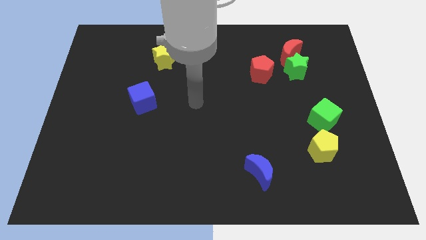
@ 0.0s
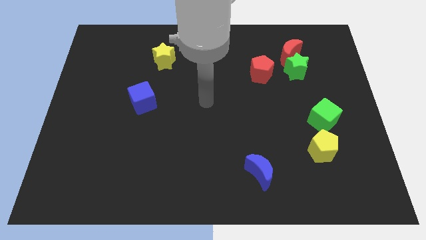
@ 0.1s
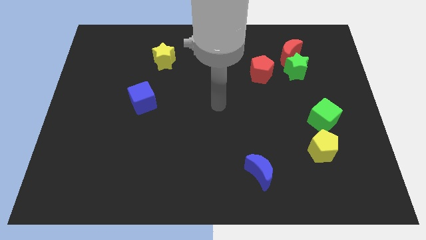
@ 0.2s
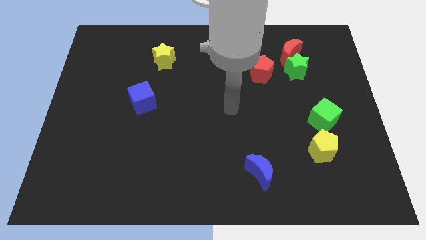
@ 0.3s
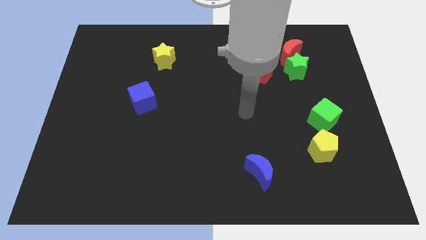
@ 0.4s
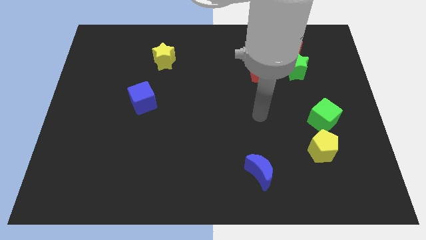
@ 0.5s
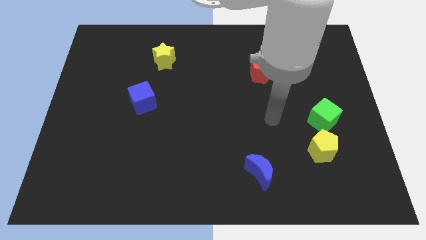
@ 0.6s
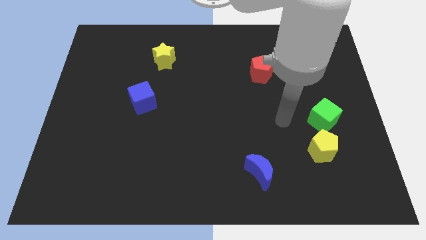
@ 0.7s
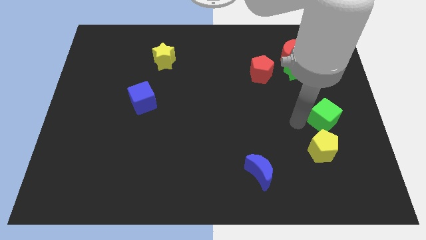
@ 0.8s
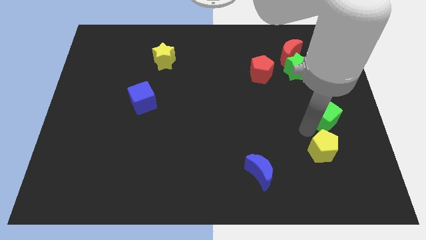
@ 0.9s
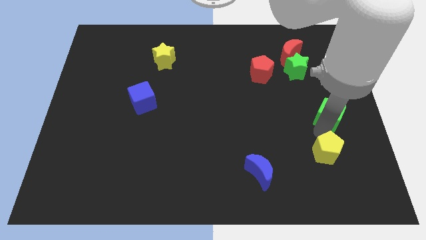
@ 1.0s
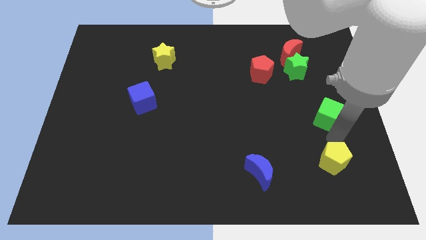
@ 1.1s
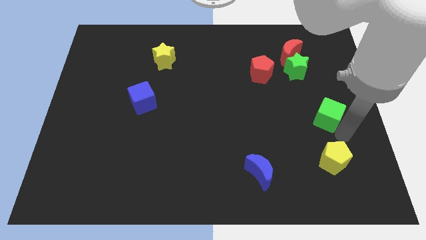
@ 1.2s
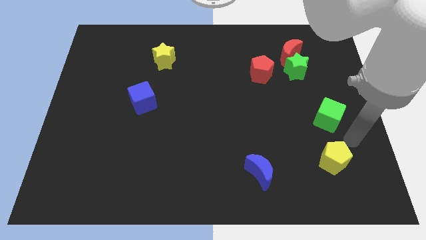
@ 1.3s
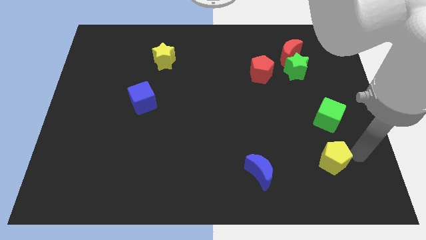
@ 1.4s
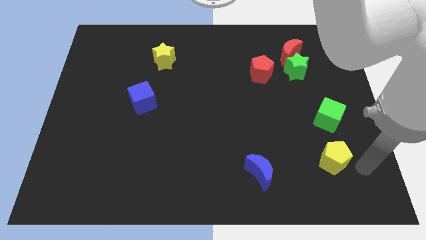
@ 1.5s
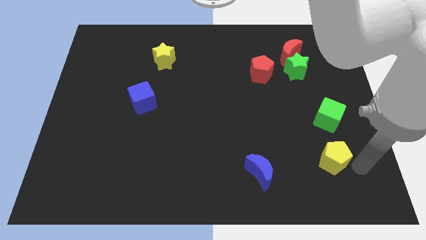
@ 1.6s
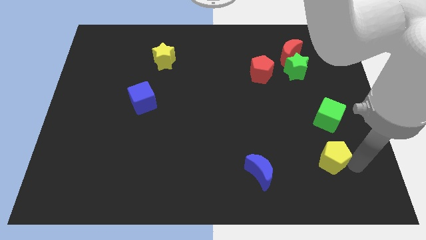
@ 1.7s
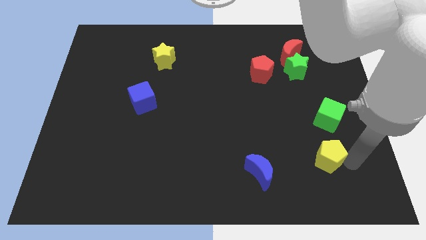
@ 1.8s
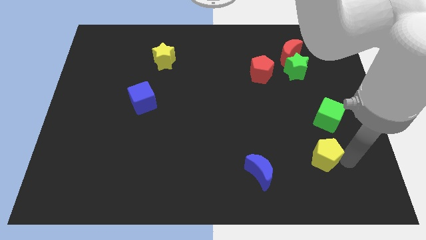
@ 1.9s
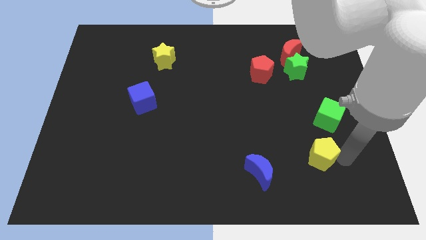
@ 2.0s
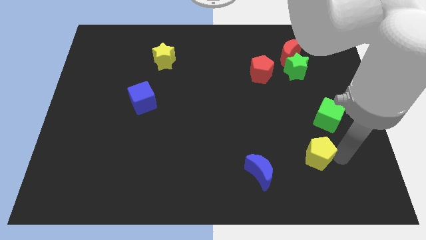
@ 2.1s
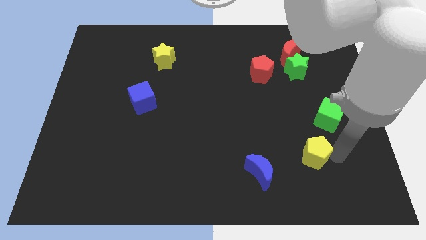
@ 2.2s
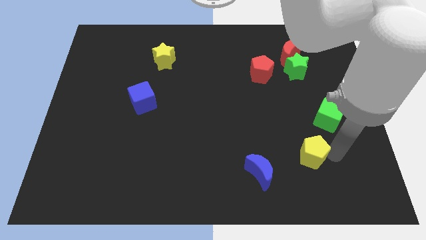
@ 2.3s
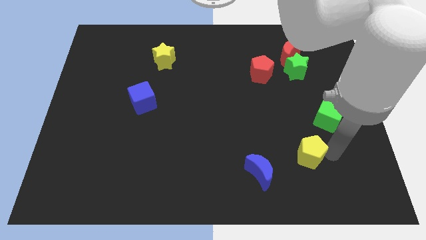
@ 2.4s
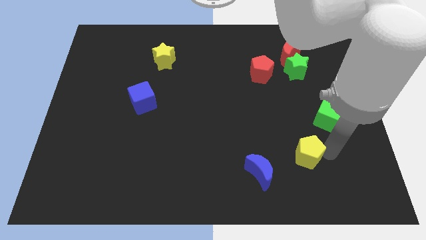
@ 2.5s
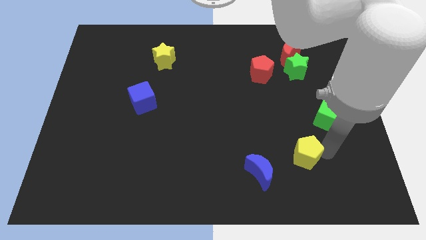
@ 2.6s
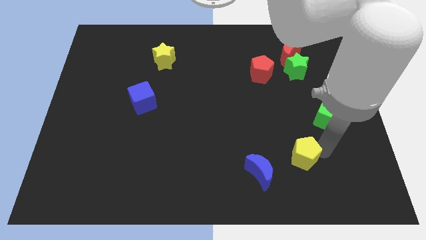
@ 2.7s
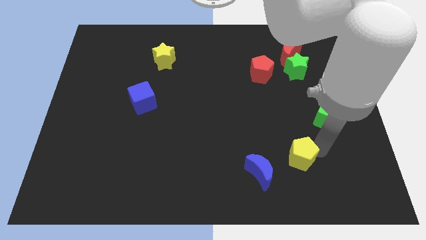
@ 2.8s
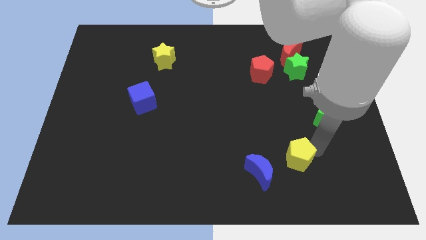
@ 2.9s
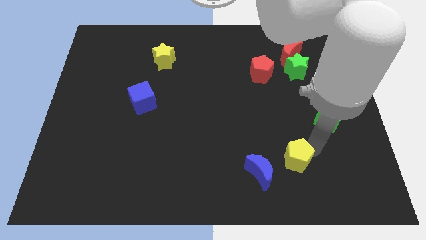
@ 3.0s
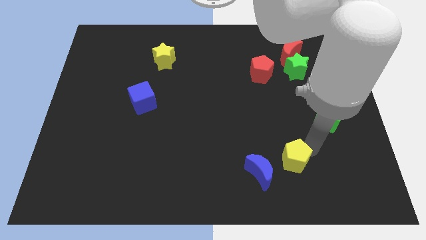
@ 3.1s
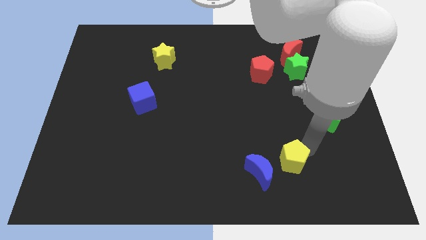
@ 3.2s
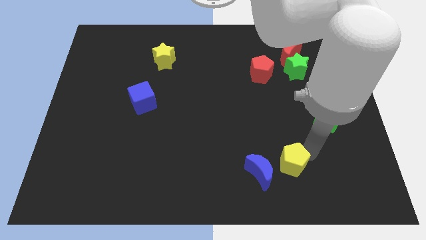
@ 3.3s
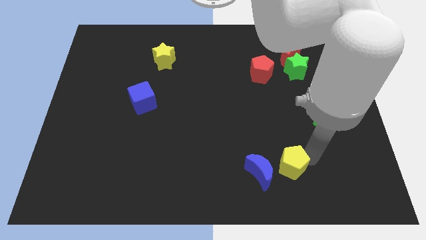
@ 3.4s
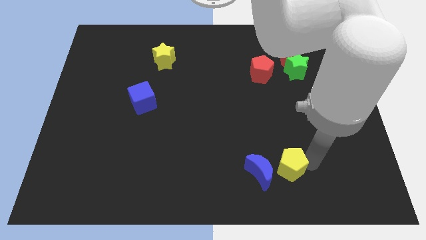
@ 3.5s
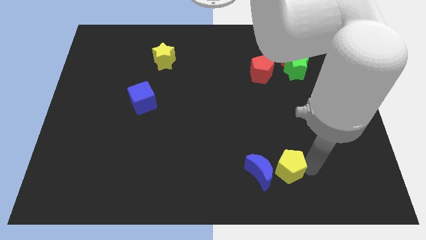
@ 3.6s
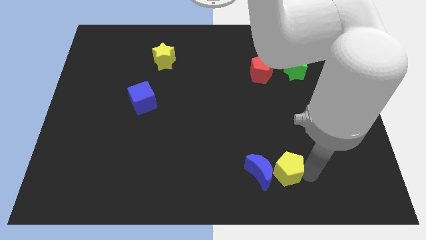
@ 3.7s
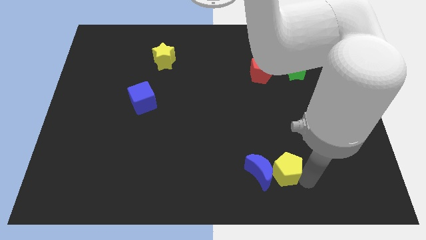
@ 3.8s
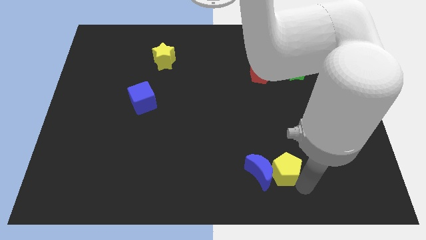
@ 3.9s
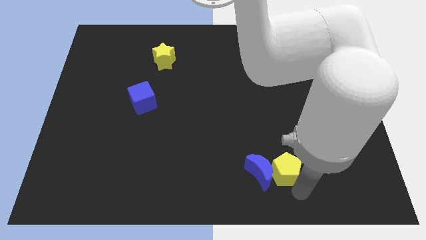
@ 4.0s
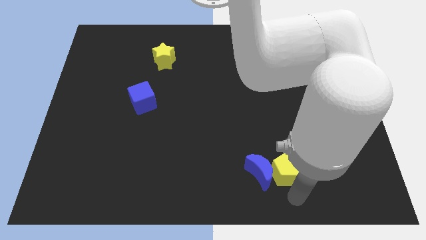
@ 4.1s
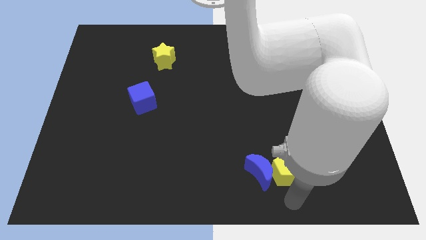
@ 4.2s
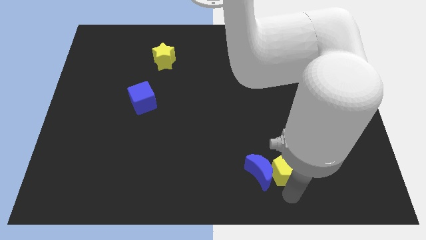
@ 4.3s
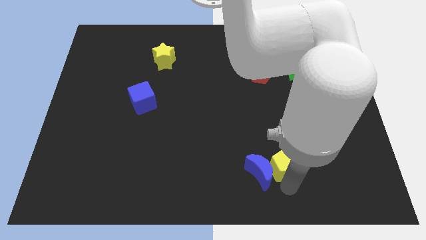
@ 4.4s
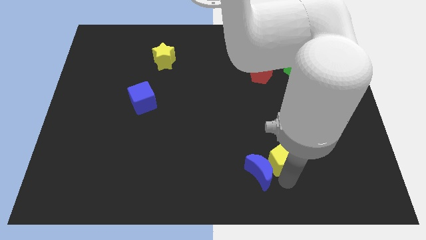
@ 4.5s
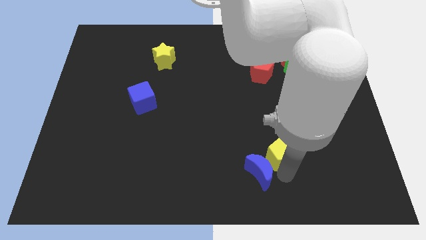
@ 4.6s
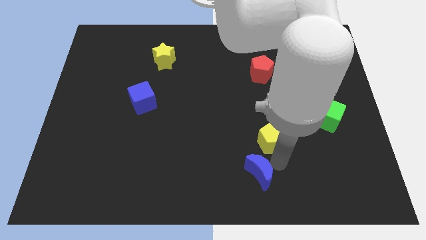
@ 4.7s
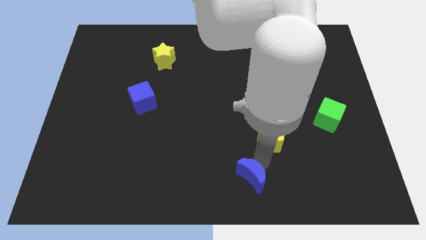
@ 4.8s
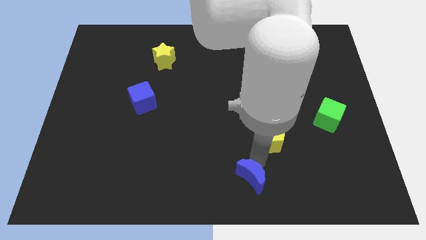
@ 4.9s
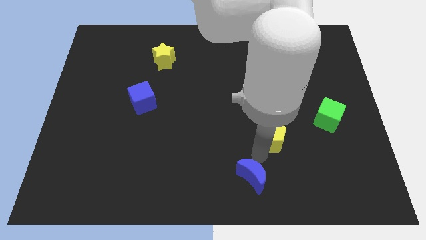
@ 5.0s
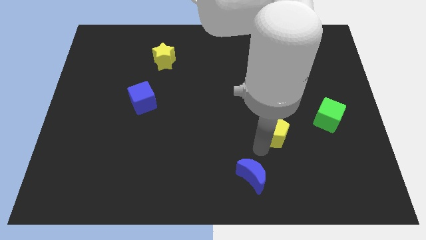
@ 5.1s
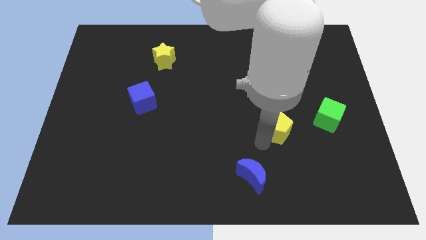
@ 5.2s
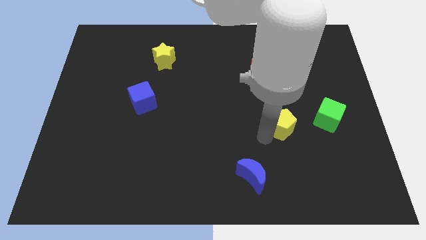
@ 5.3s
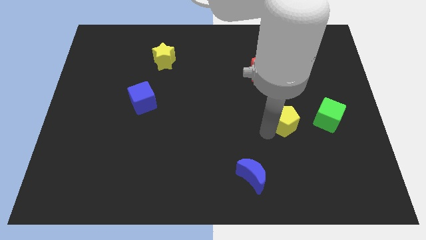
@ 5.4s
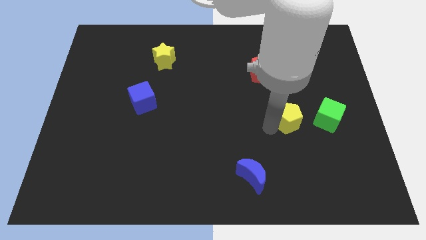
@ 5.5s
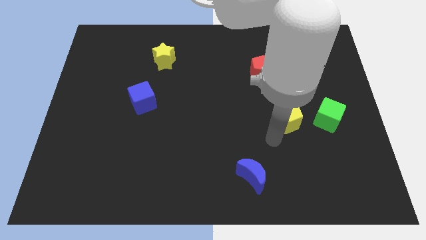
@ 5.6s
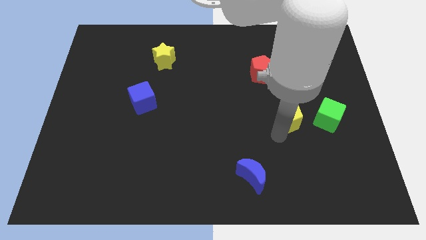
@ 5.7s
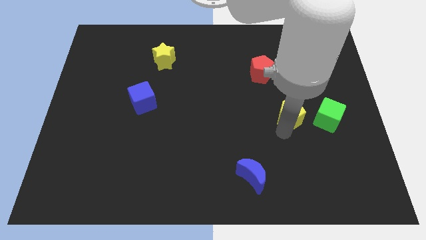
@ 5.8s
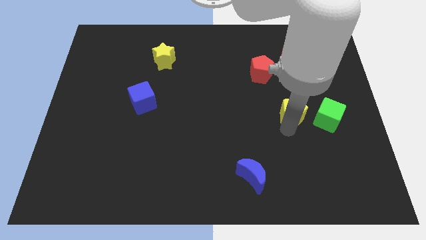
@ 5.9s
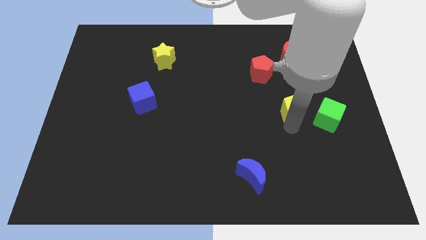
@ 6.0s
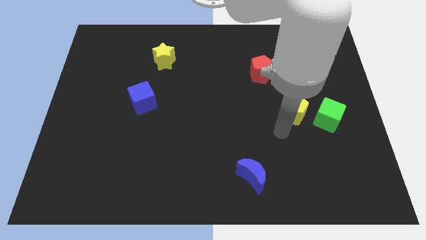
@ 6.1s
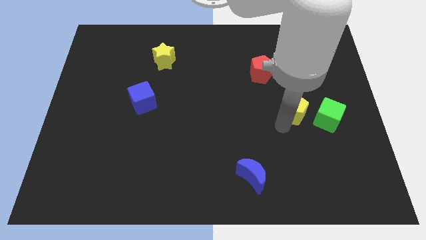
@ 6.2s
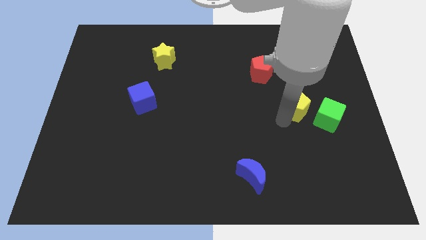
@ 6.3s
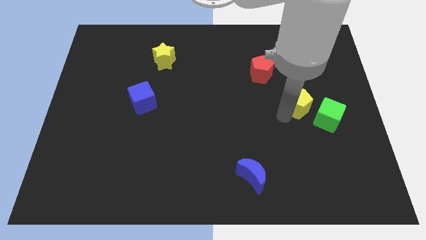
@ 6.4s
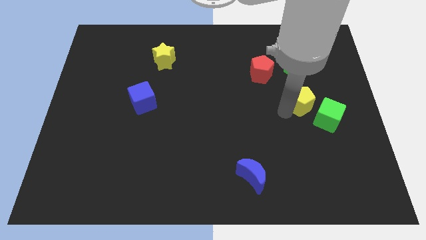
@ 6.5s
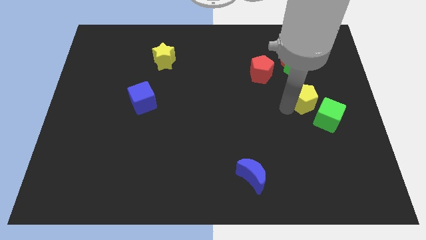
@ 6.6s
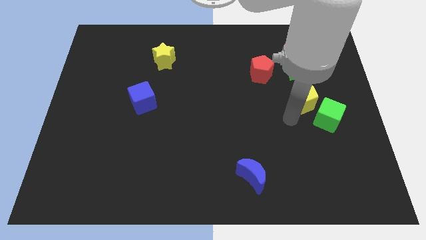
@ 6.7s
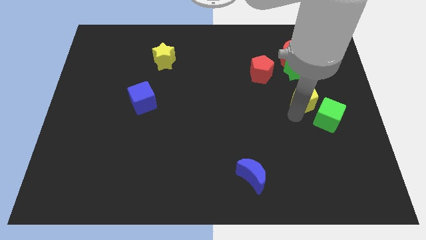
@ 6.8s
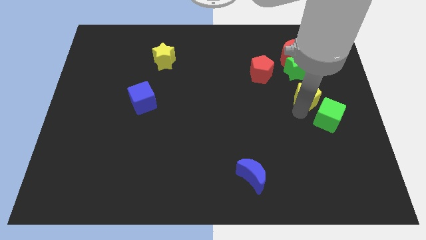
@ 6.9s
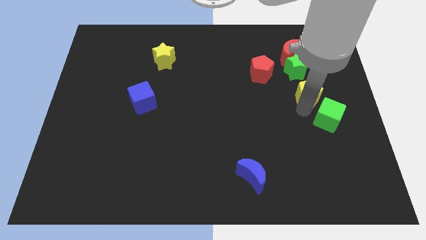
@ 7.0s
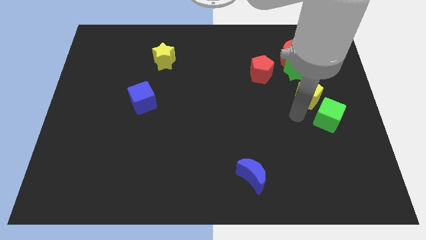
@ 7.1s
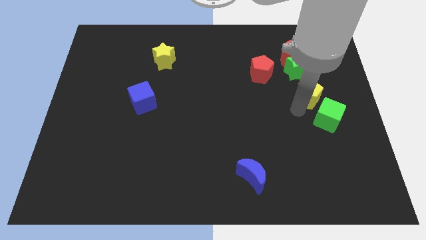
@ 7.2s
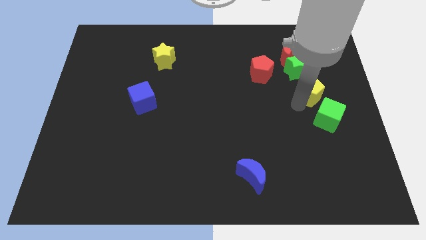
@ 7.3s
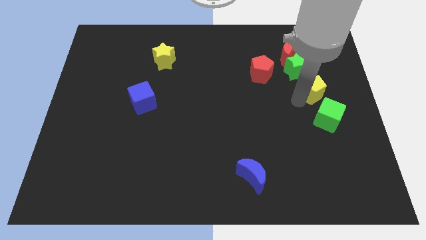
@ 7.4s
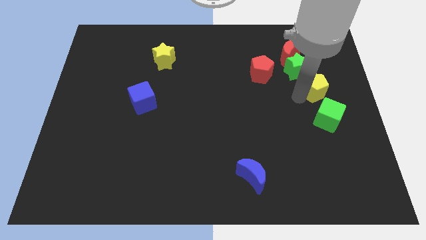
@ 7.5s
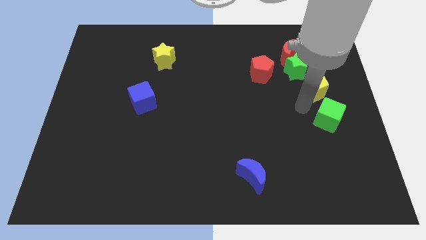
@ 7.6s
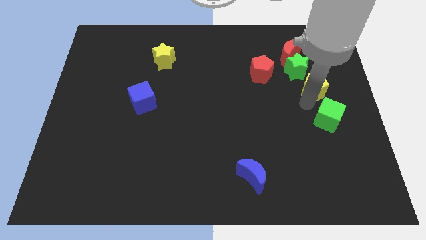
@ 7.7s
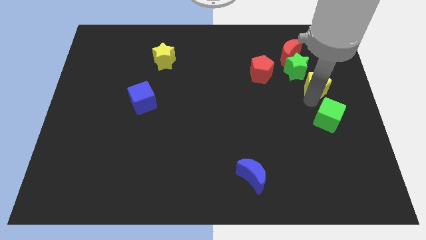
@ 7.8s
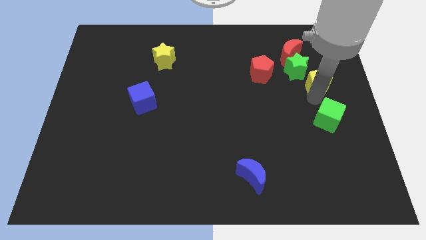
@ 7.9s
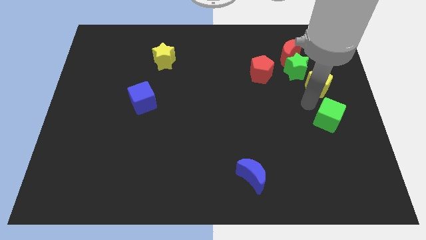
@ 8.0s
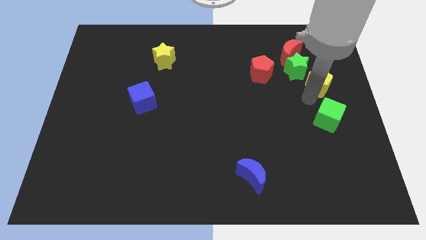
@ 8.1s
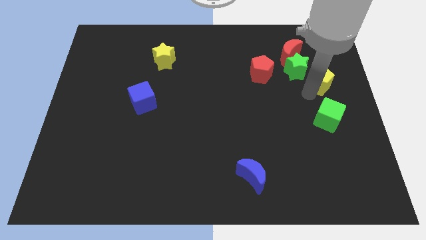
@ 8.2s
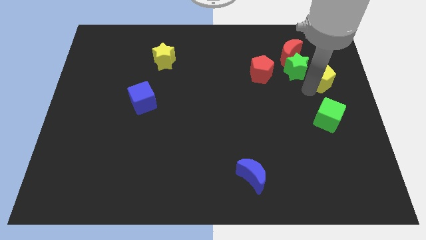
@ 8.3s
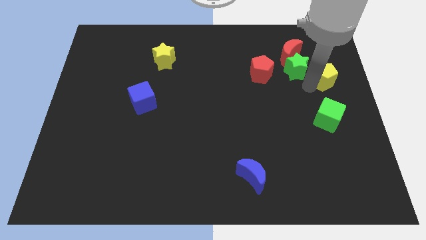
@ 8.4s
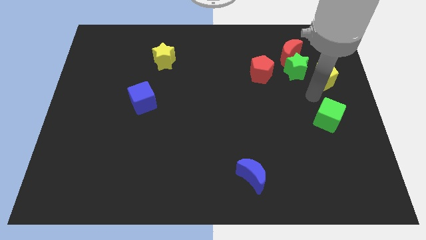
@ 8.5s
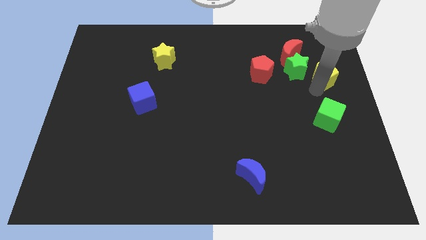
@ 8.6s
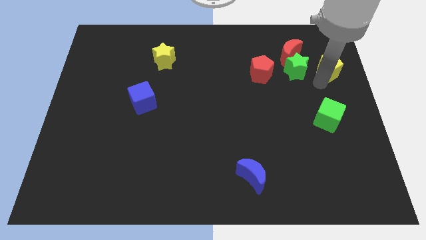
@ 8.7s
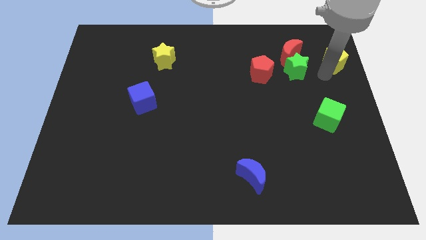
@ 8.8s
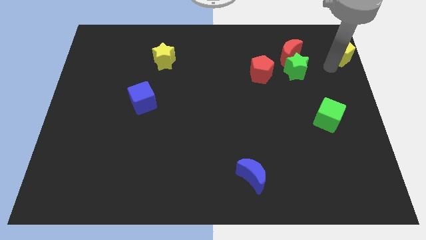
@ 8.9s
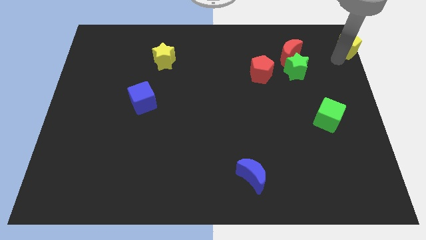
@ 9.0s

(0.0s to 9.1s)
slide the yellow pentagon to the upper right corner
